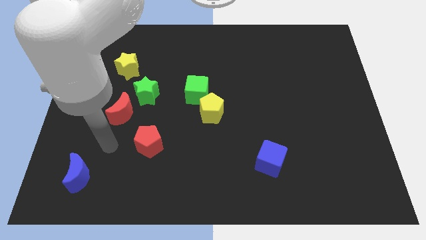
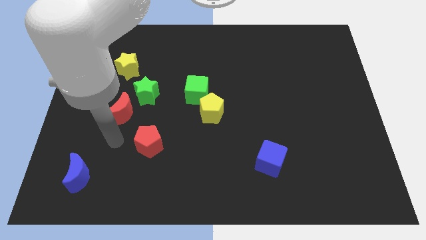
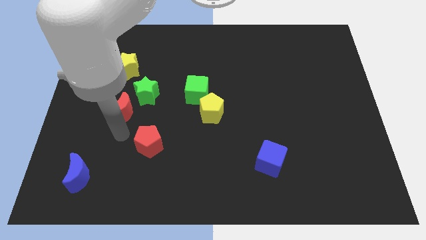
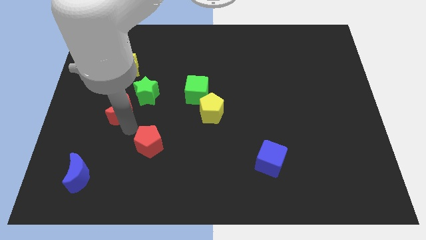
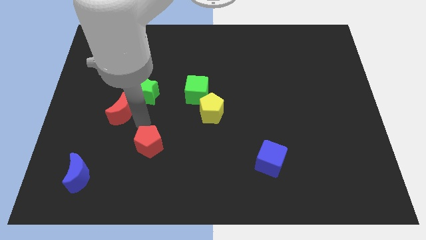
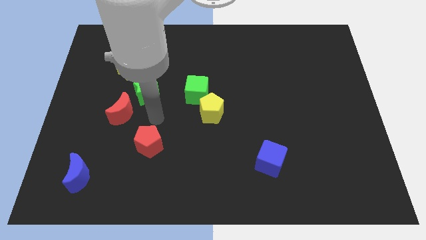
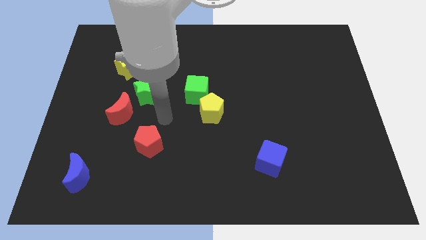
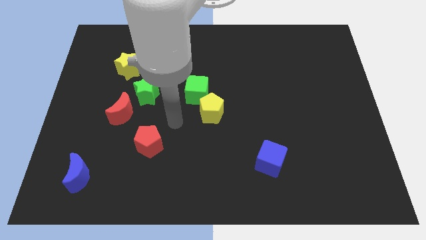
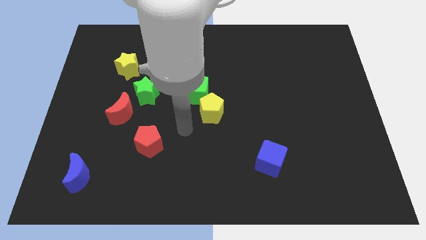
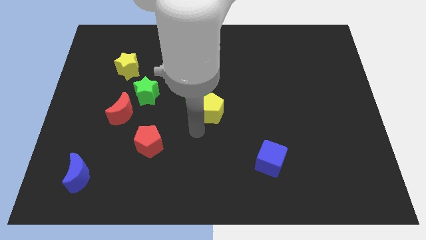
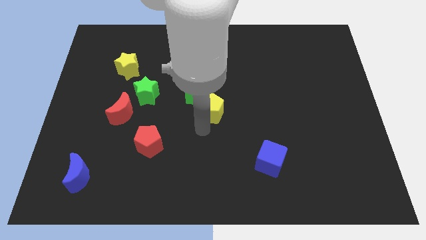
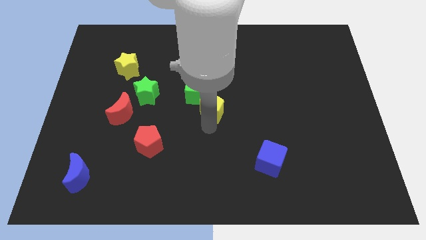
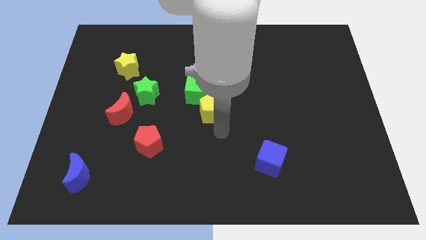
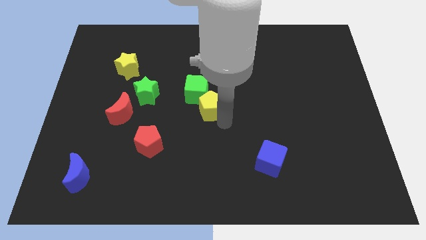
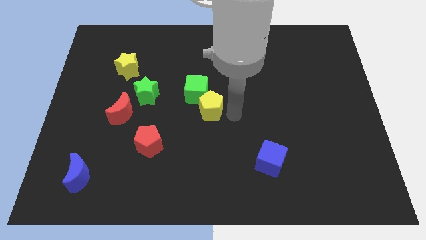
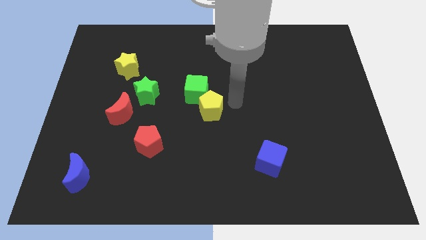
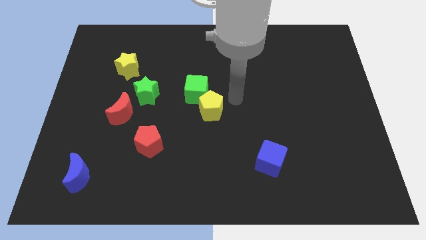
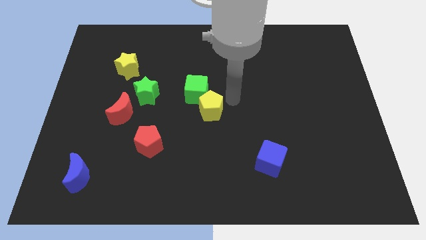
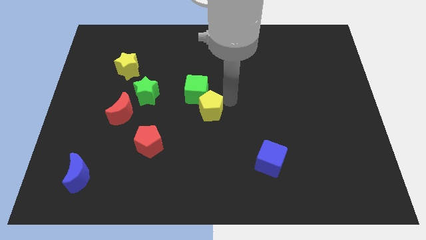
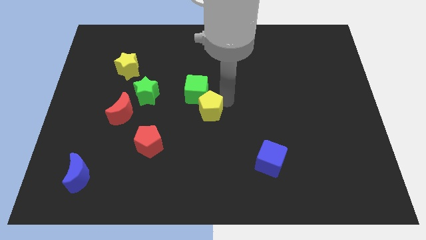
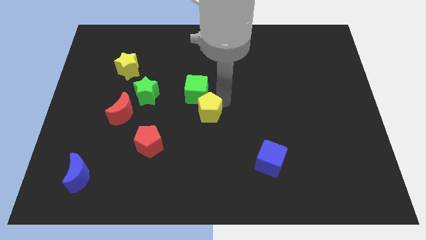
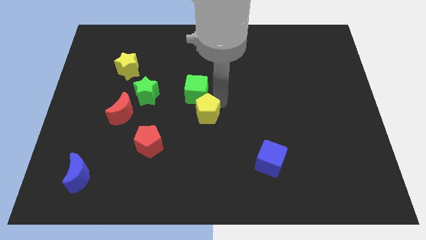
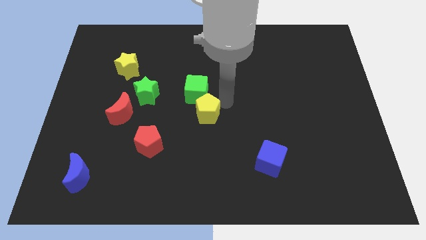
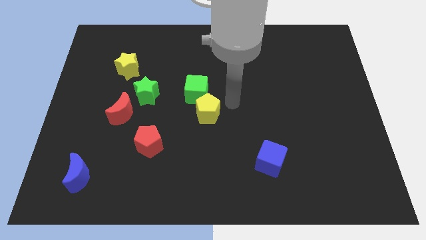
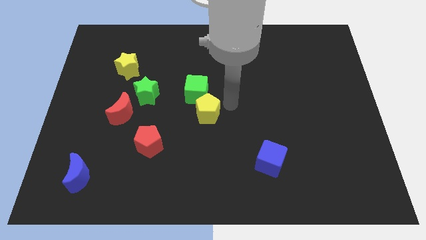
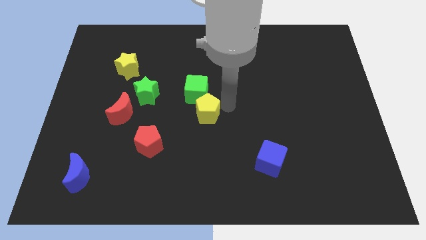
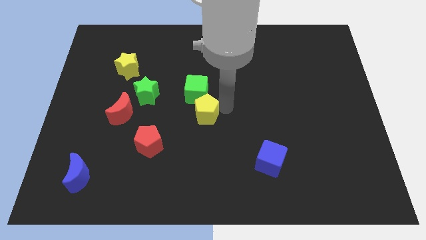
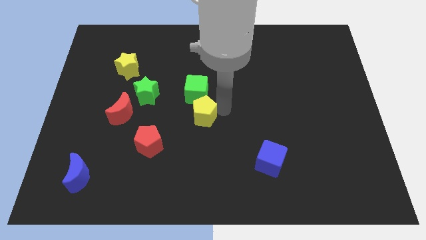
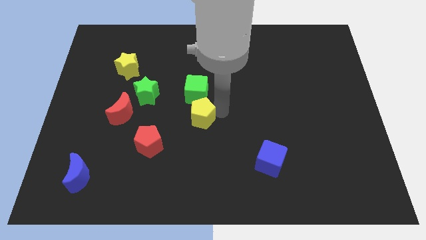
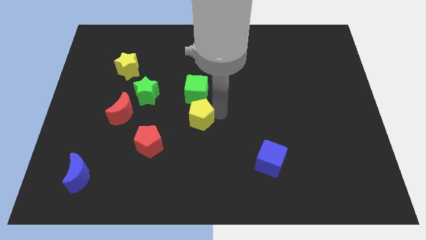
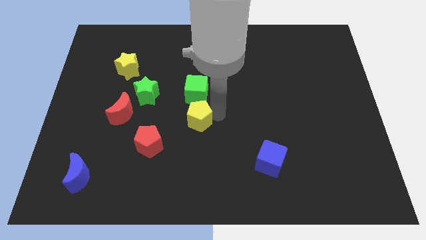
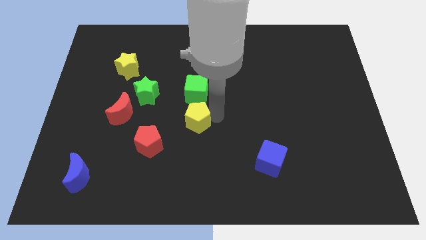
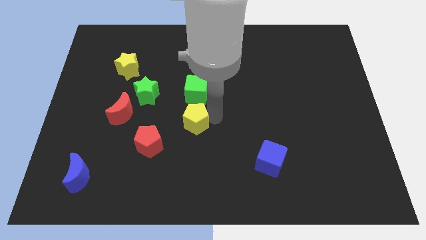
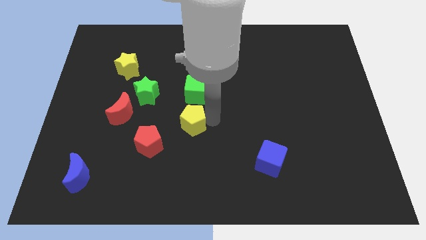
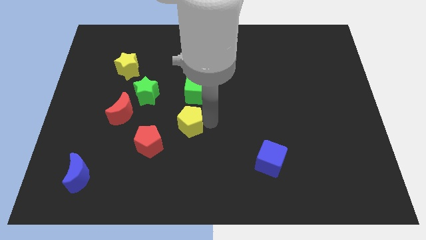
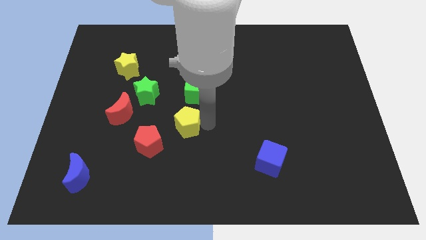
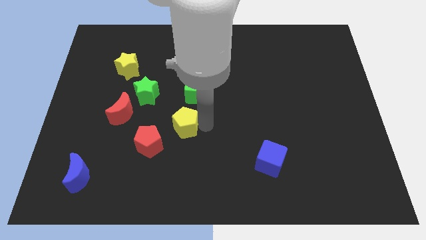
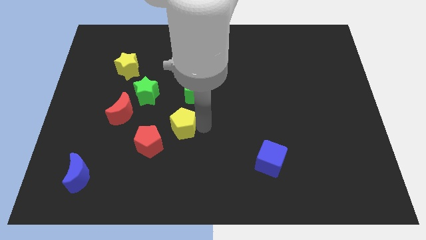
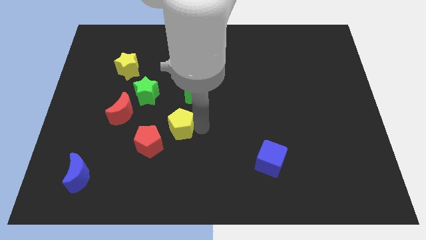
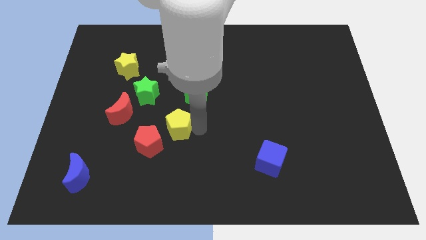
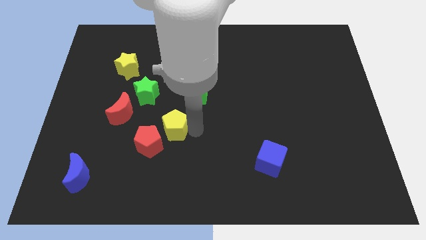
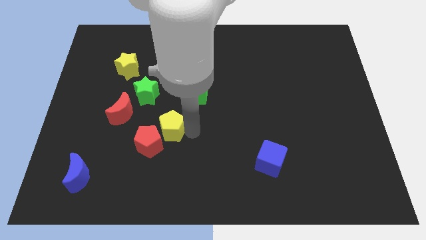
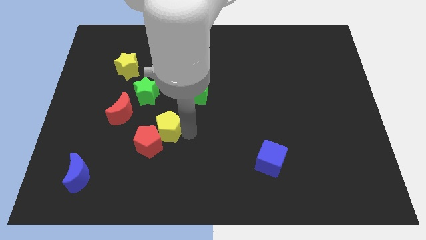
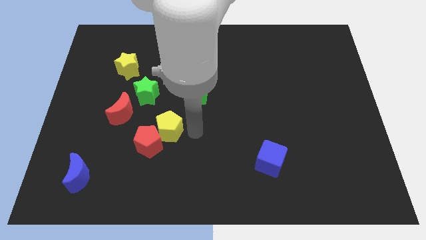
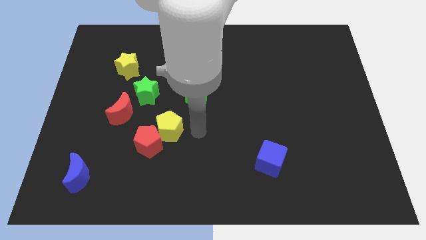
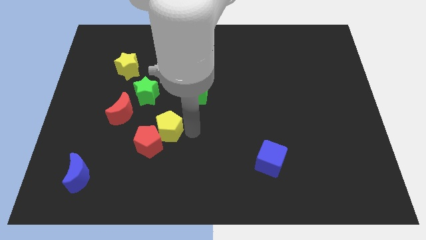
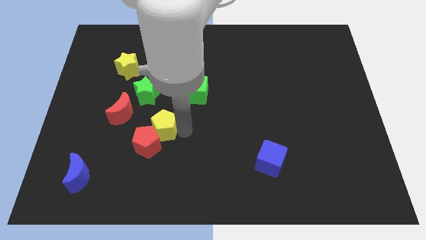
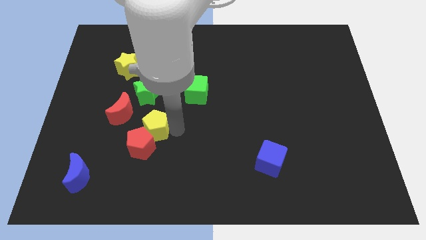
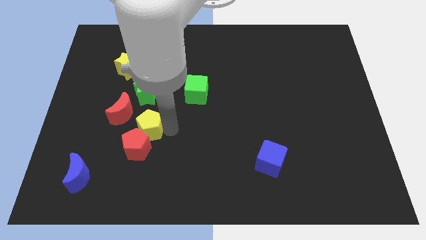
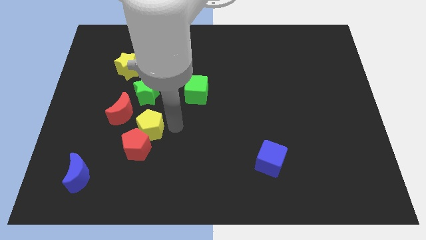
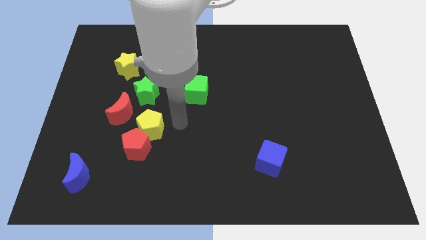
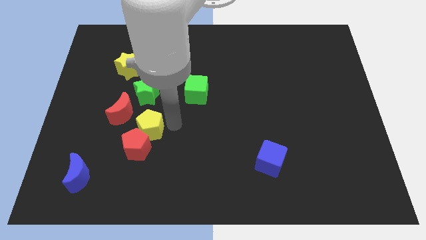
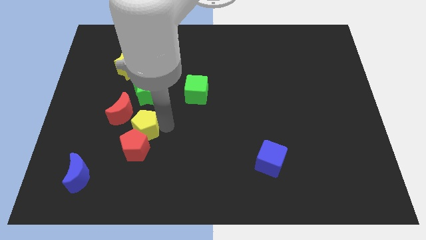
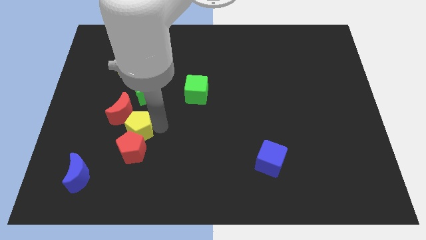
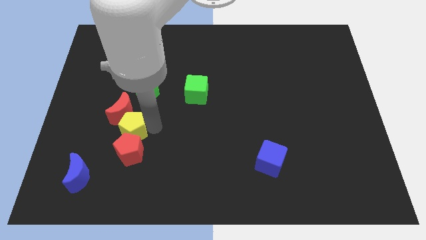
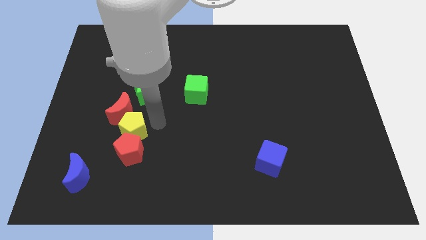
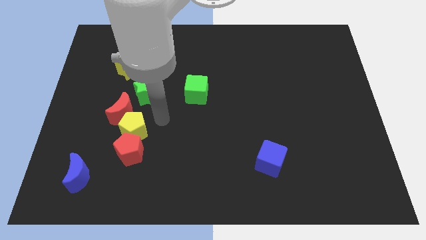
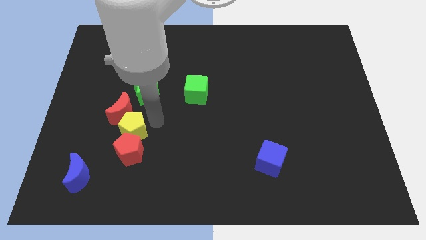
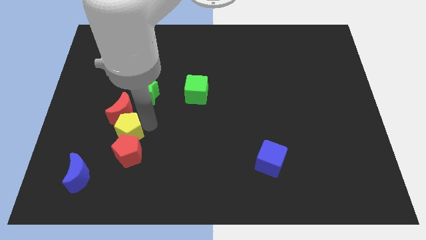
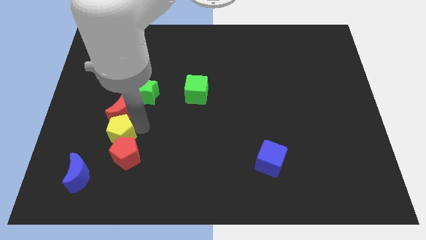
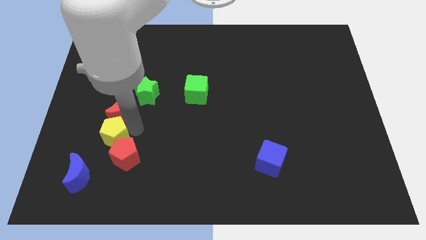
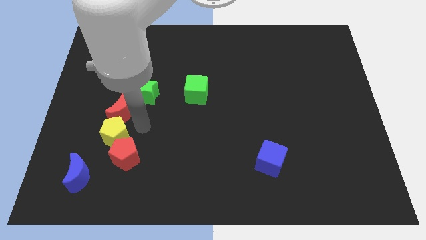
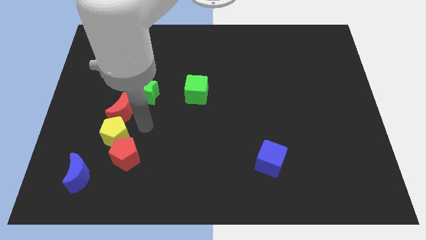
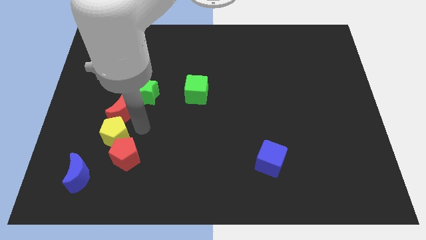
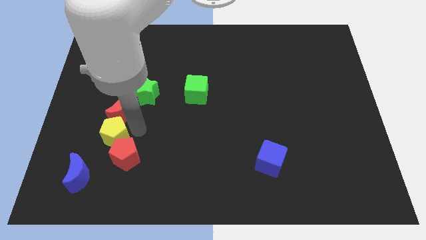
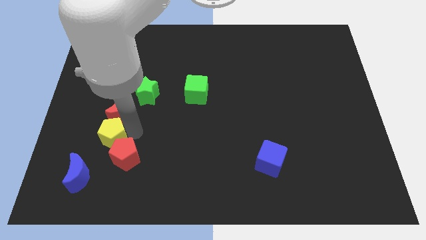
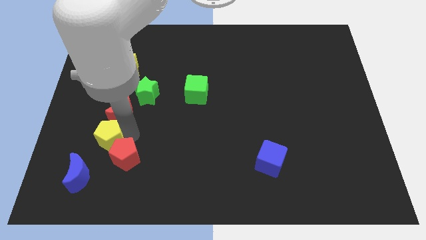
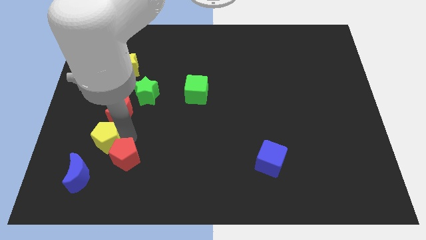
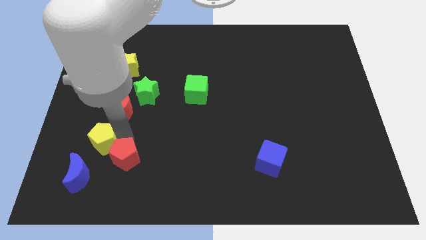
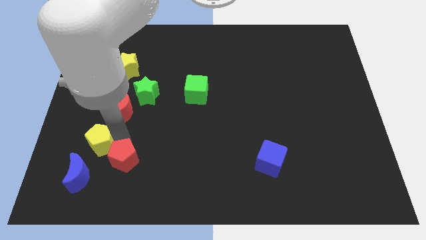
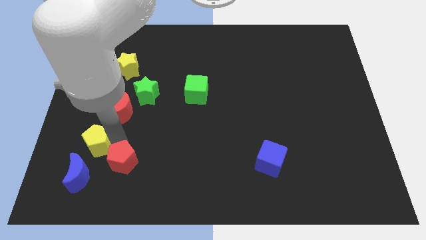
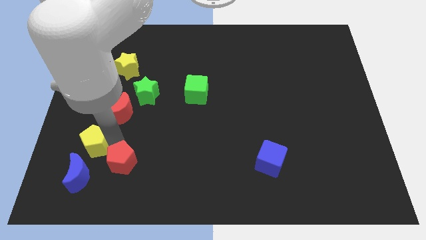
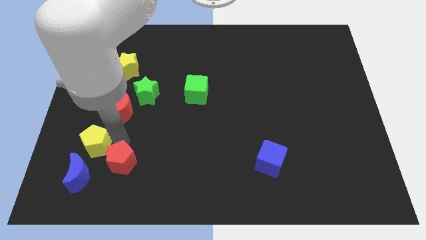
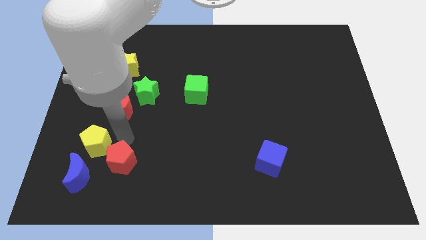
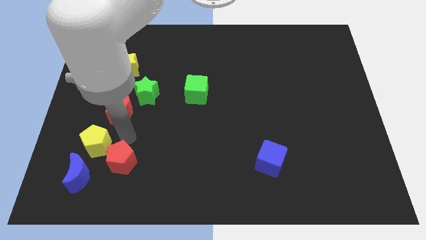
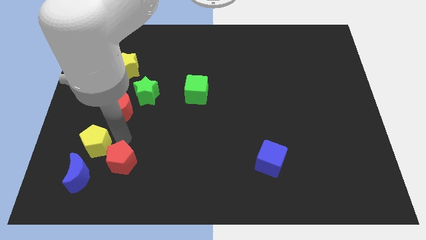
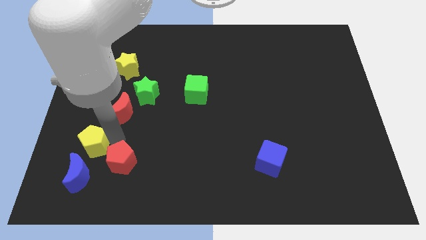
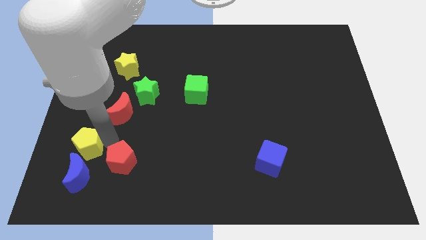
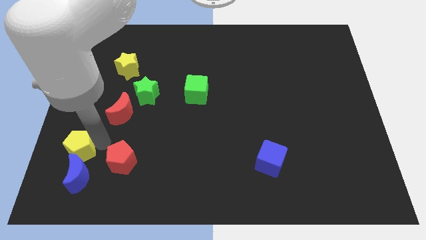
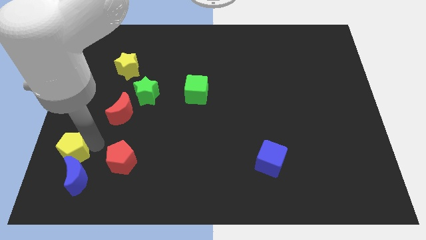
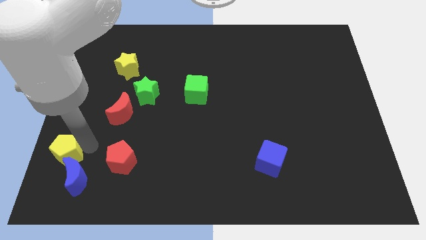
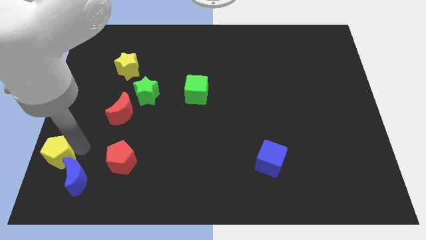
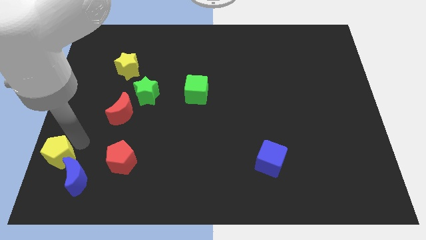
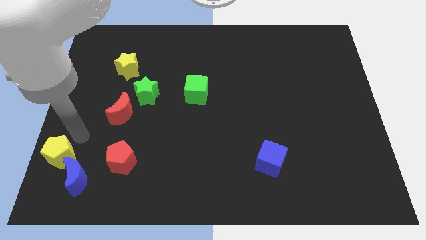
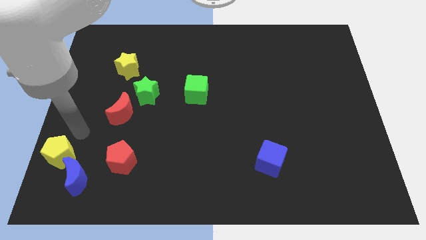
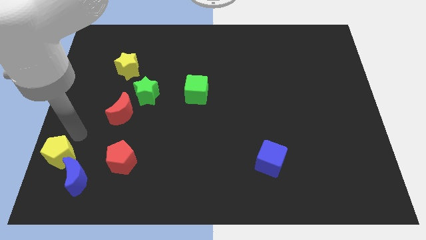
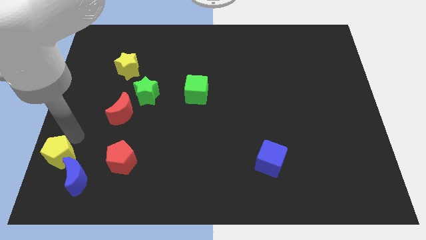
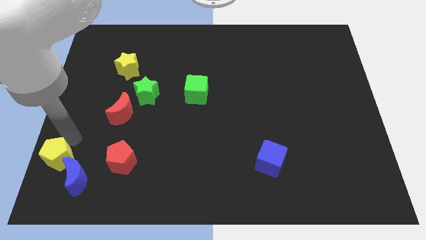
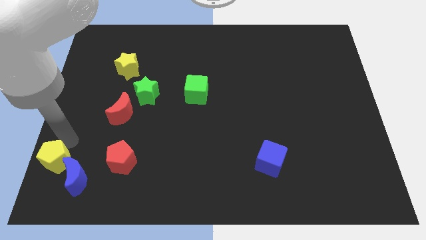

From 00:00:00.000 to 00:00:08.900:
slide the yellow pentagon to the bottom left of the board
